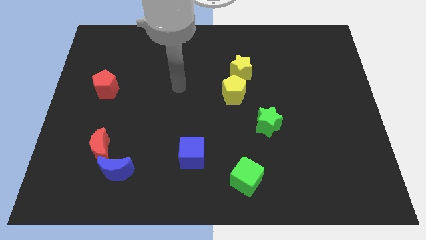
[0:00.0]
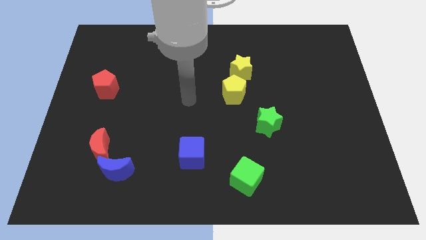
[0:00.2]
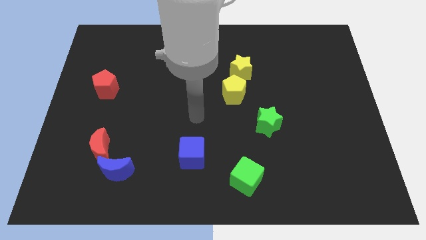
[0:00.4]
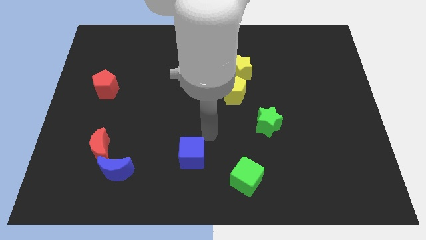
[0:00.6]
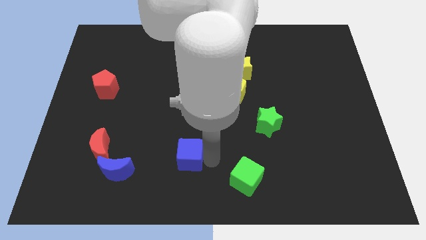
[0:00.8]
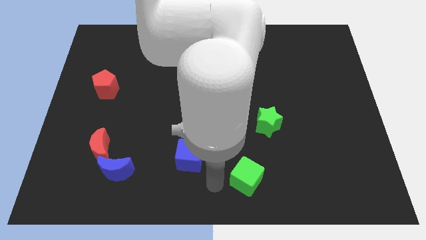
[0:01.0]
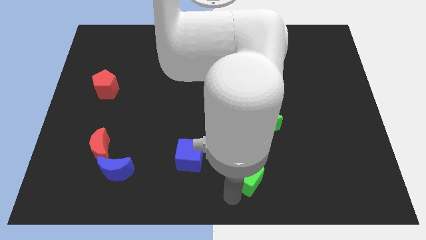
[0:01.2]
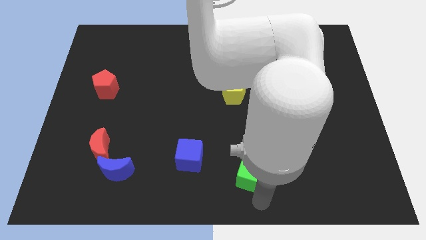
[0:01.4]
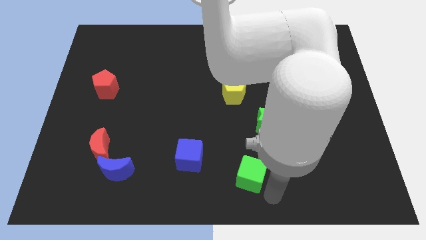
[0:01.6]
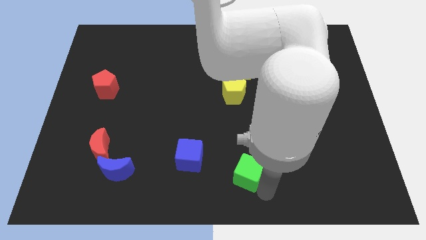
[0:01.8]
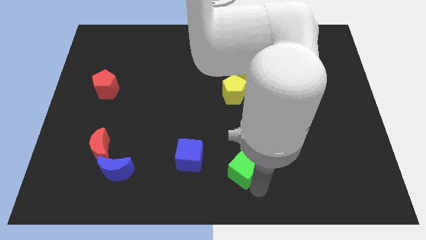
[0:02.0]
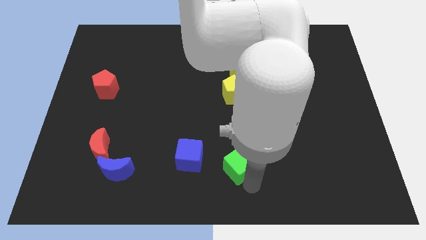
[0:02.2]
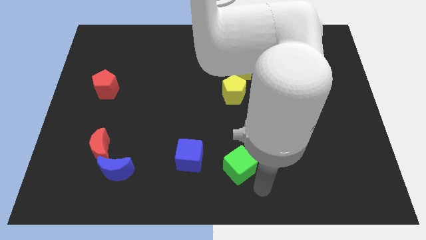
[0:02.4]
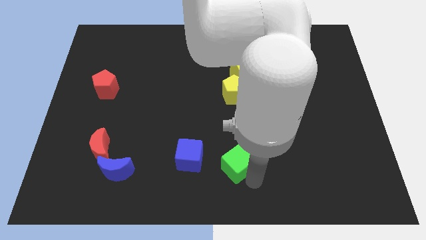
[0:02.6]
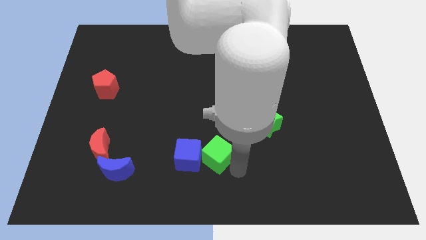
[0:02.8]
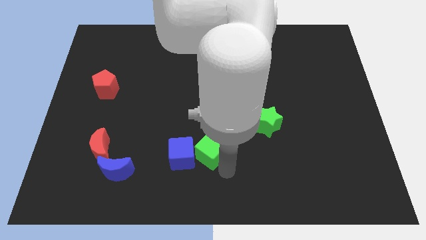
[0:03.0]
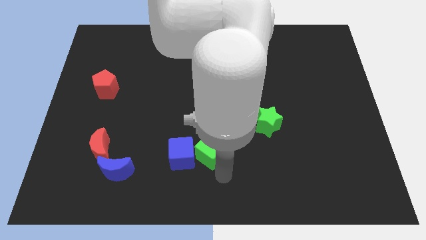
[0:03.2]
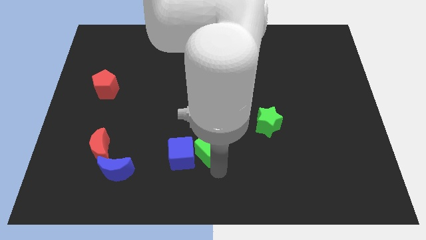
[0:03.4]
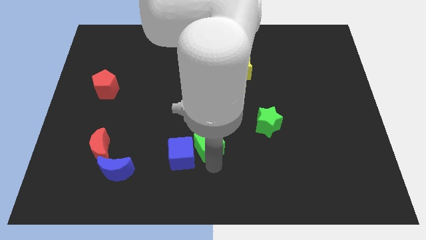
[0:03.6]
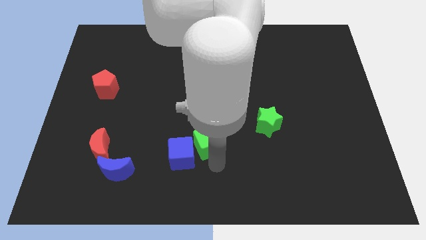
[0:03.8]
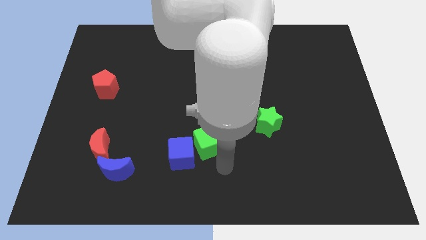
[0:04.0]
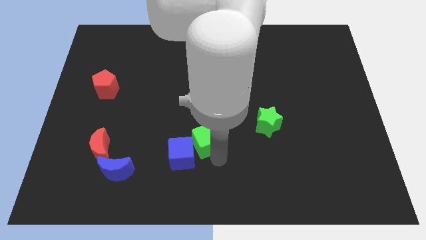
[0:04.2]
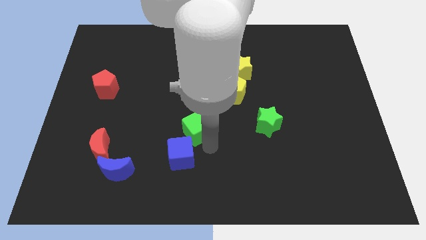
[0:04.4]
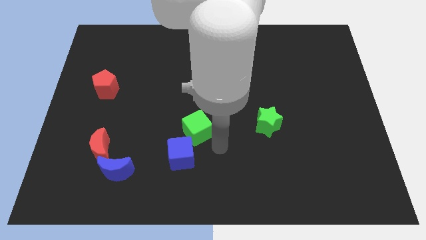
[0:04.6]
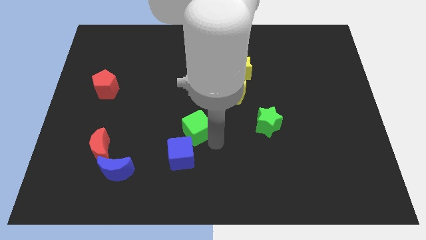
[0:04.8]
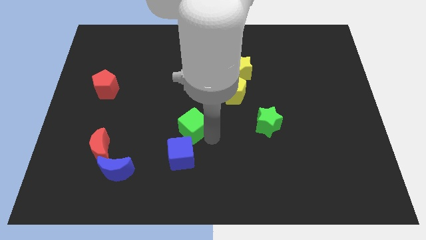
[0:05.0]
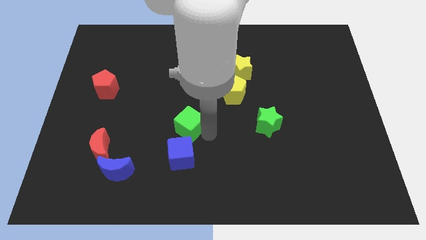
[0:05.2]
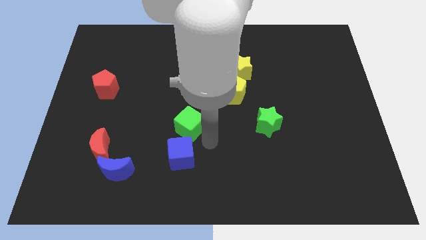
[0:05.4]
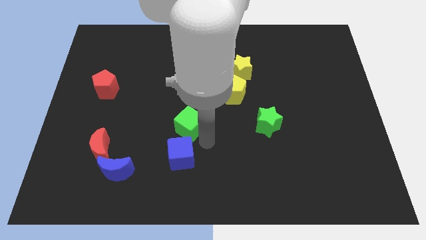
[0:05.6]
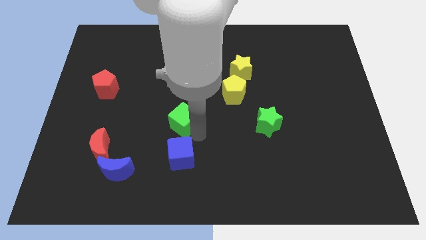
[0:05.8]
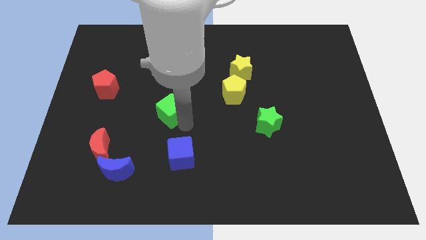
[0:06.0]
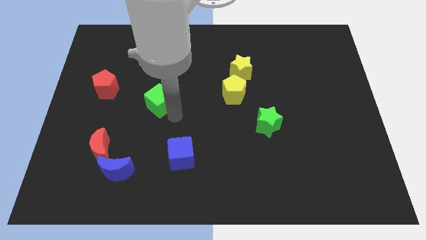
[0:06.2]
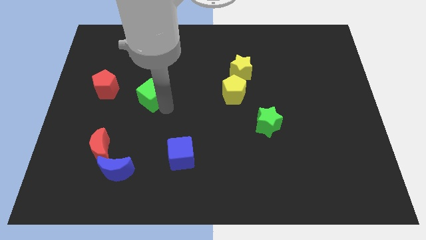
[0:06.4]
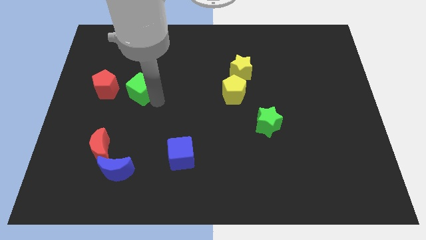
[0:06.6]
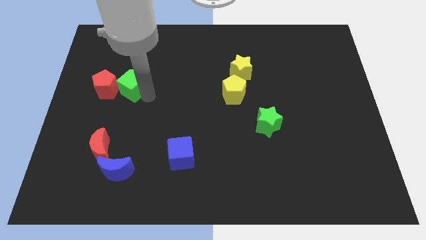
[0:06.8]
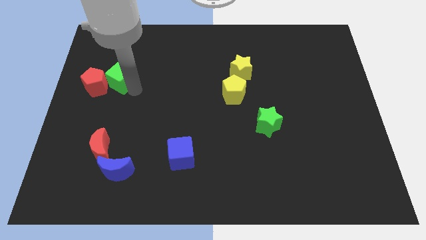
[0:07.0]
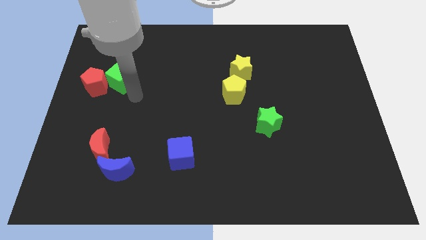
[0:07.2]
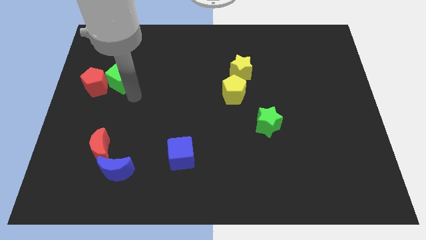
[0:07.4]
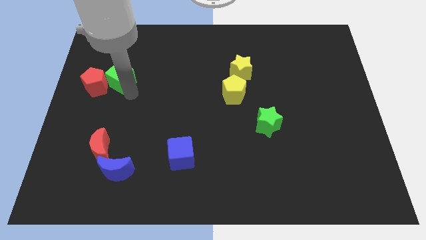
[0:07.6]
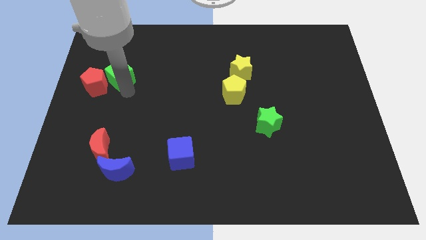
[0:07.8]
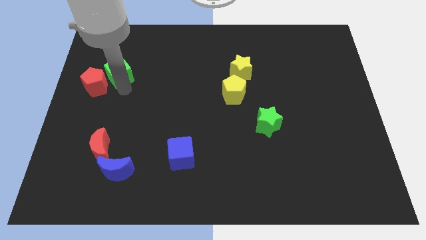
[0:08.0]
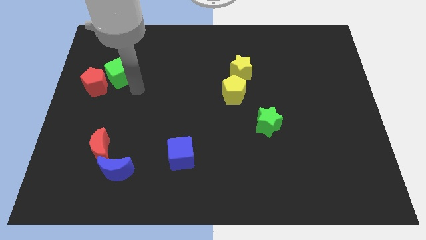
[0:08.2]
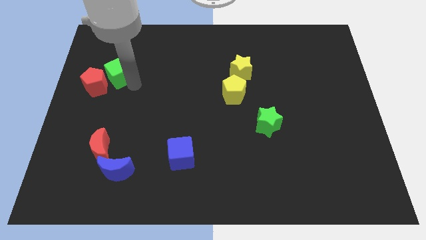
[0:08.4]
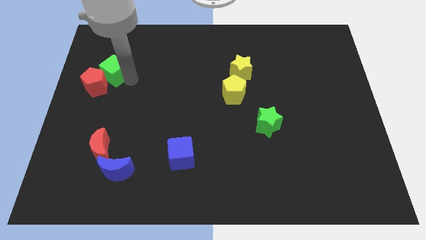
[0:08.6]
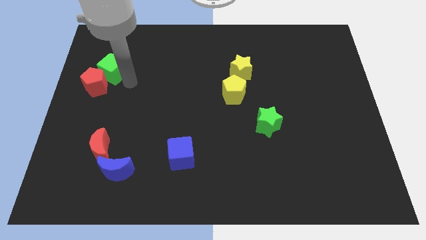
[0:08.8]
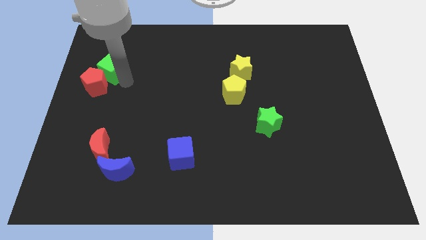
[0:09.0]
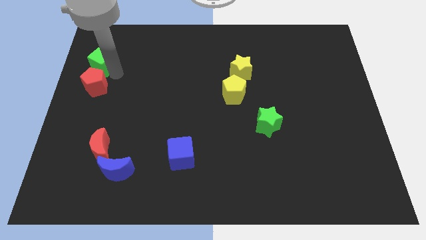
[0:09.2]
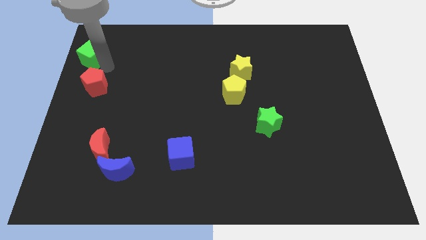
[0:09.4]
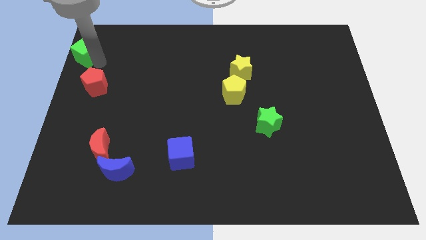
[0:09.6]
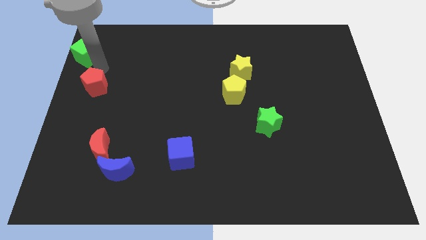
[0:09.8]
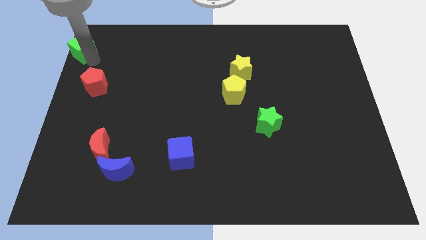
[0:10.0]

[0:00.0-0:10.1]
push the green cube to the top left

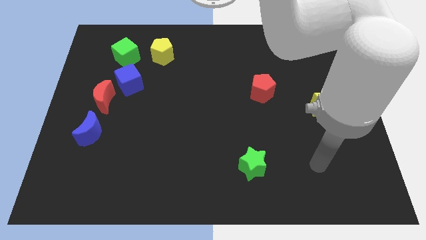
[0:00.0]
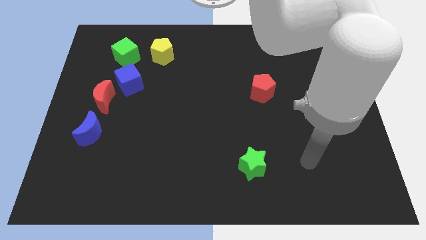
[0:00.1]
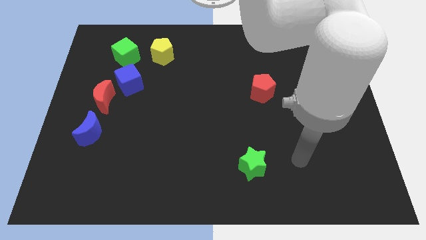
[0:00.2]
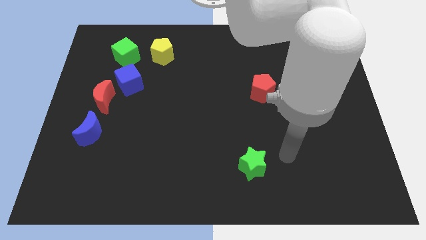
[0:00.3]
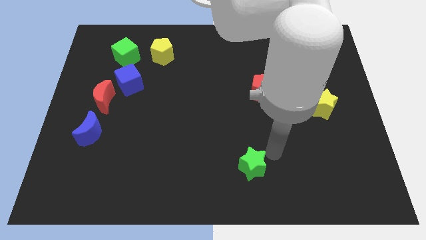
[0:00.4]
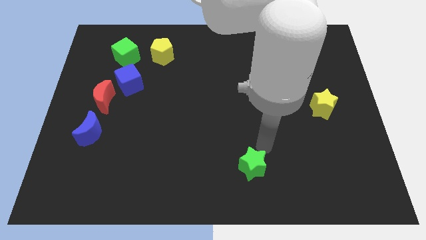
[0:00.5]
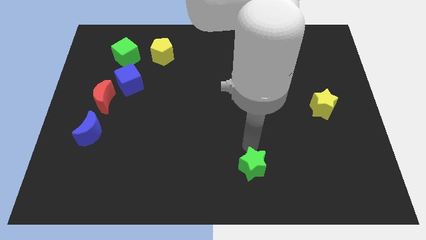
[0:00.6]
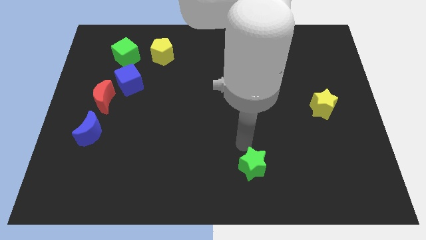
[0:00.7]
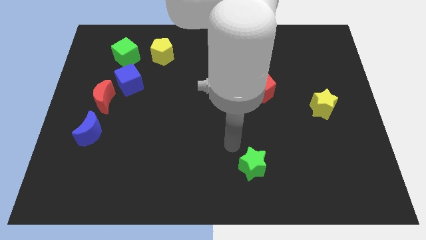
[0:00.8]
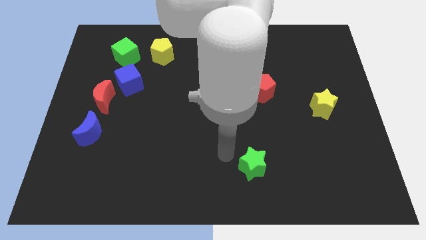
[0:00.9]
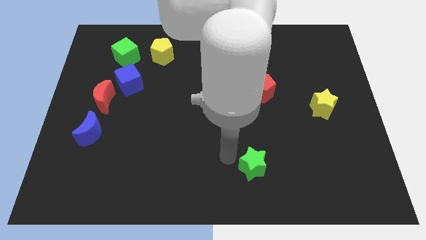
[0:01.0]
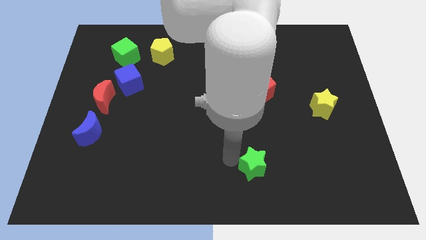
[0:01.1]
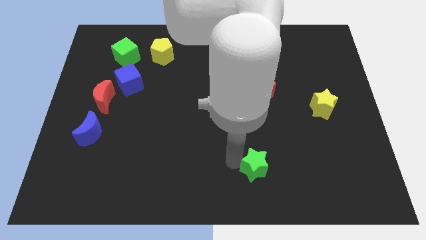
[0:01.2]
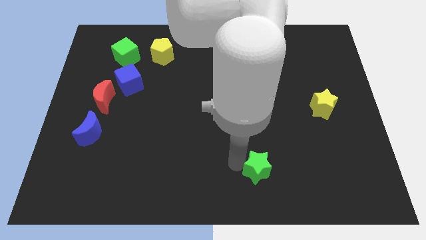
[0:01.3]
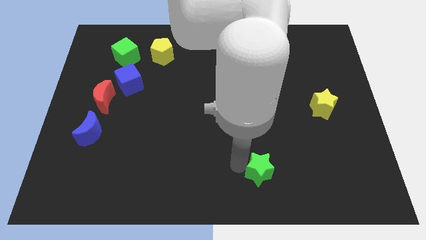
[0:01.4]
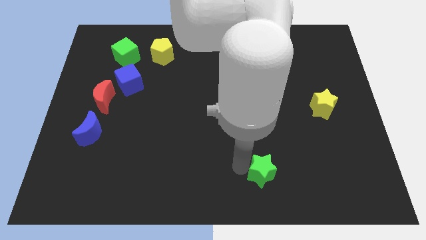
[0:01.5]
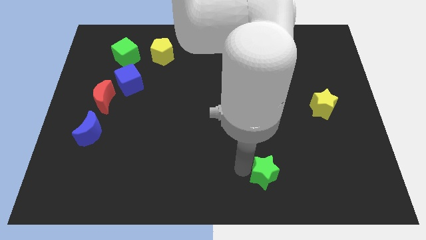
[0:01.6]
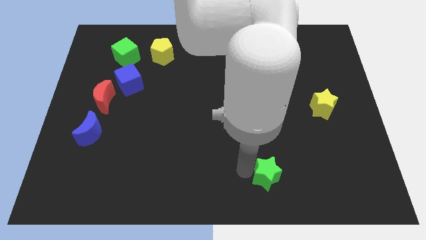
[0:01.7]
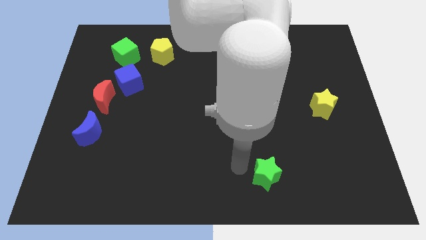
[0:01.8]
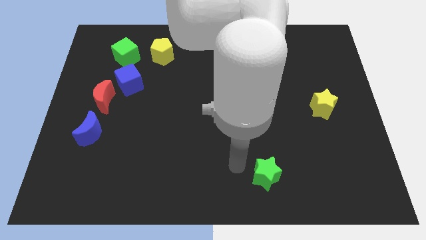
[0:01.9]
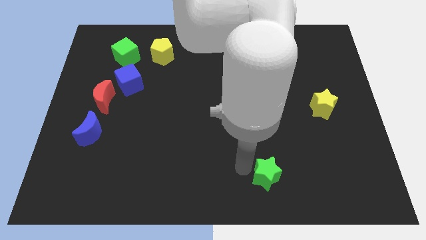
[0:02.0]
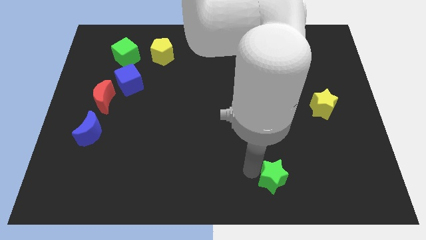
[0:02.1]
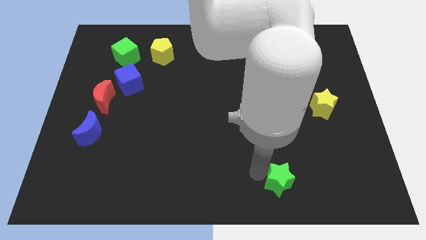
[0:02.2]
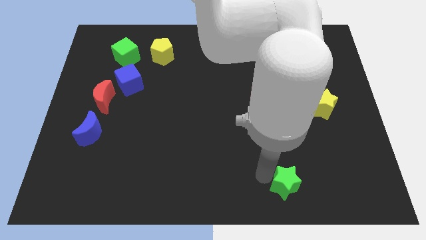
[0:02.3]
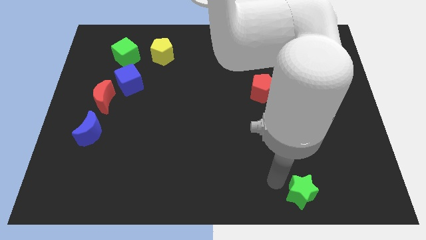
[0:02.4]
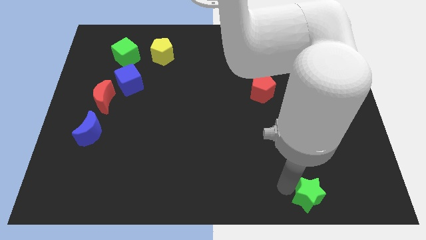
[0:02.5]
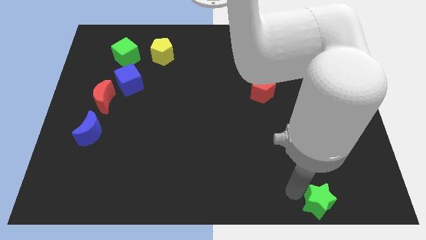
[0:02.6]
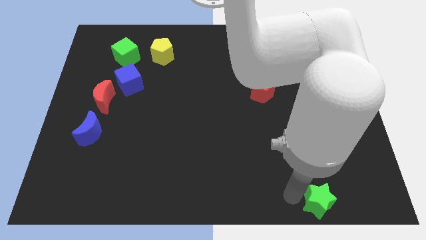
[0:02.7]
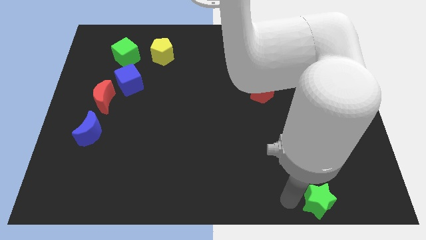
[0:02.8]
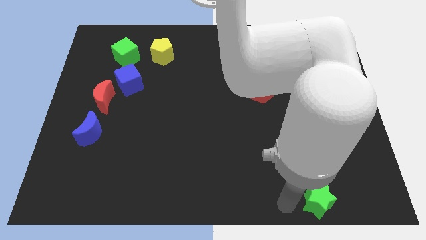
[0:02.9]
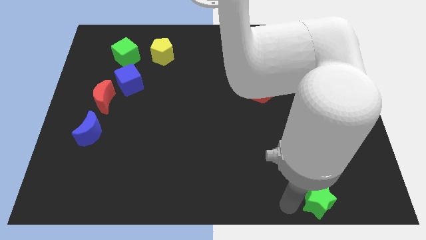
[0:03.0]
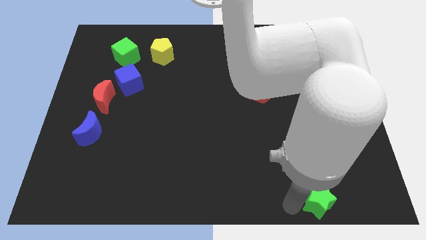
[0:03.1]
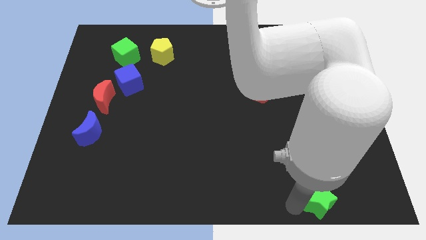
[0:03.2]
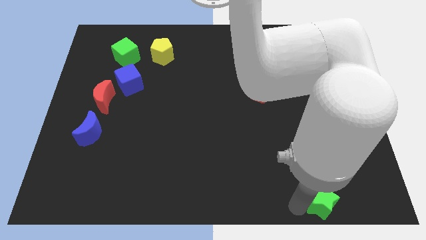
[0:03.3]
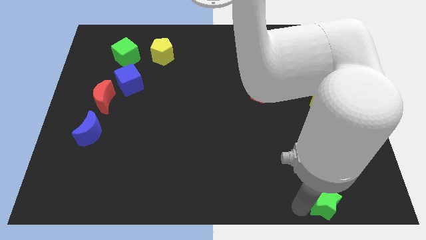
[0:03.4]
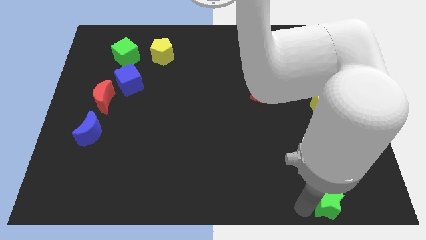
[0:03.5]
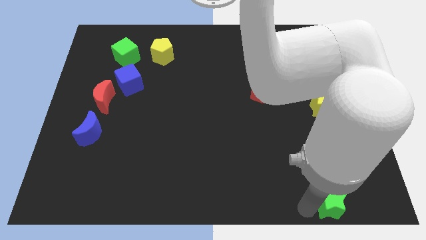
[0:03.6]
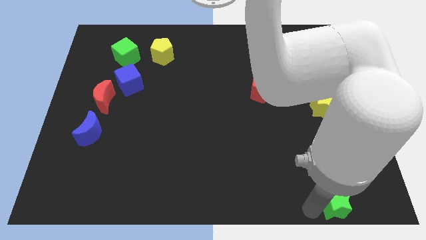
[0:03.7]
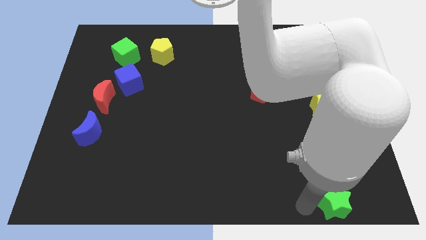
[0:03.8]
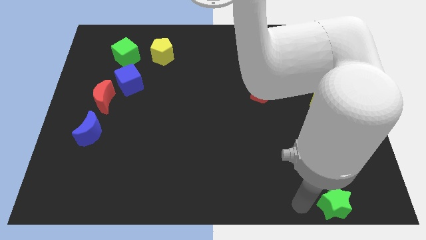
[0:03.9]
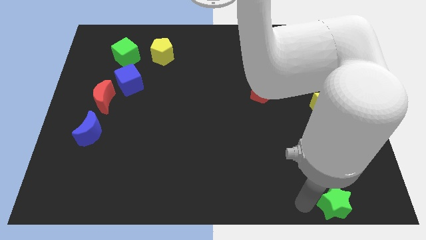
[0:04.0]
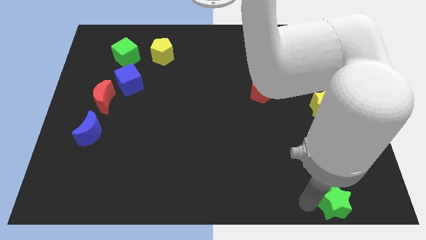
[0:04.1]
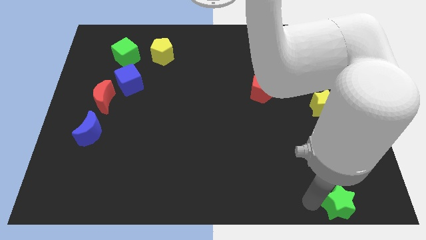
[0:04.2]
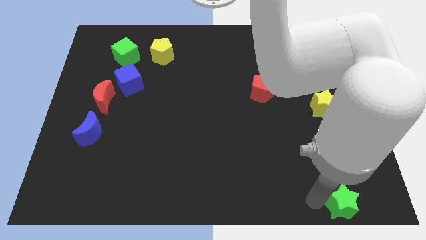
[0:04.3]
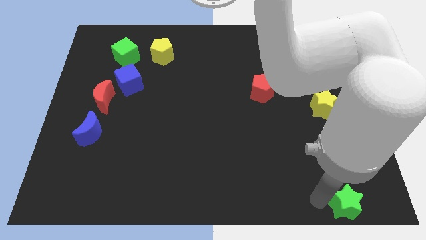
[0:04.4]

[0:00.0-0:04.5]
move the green star to the bottom right
